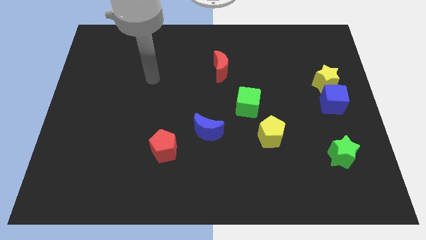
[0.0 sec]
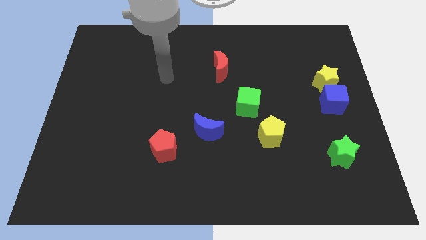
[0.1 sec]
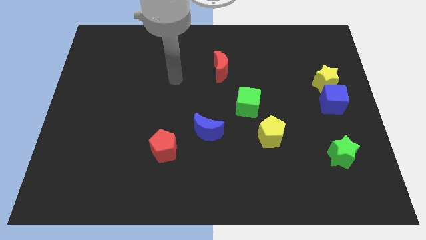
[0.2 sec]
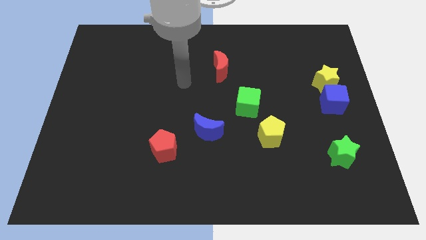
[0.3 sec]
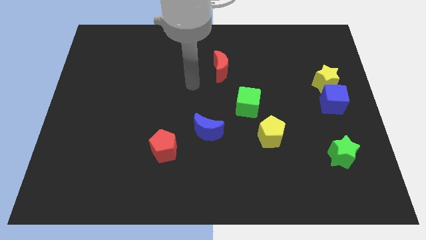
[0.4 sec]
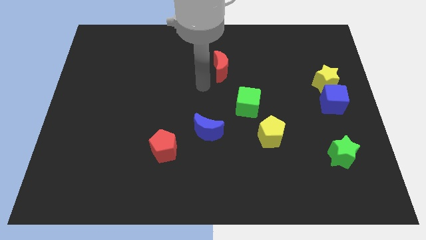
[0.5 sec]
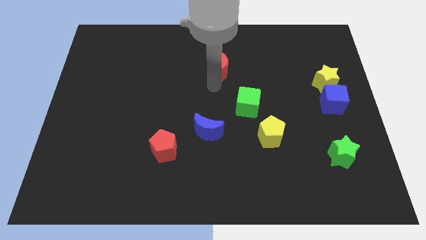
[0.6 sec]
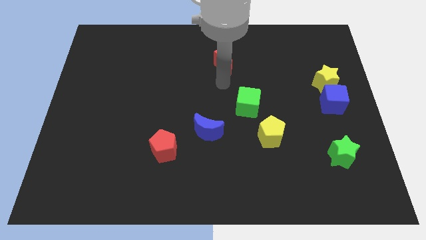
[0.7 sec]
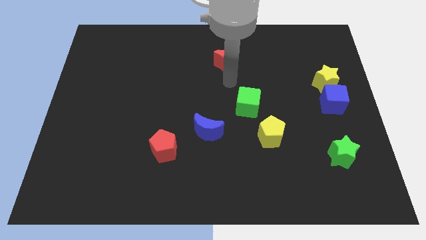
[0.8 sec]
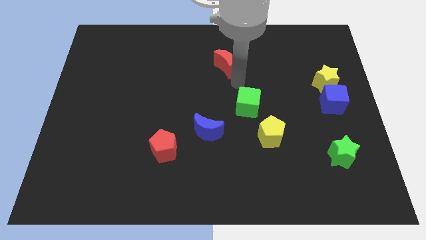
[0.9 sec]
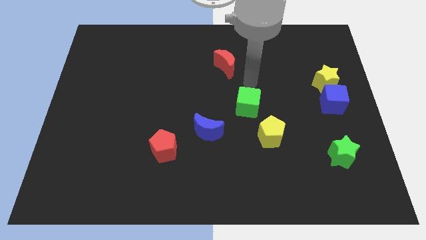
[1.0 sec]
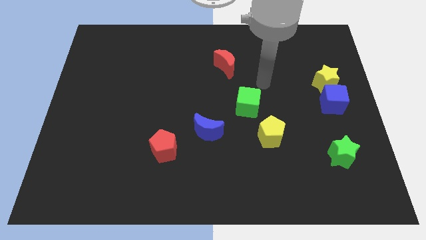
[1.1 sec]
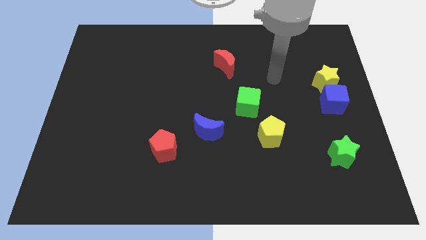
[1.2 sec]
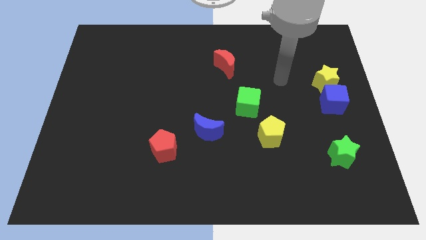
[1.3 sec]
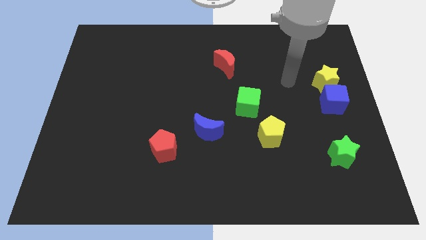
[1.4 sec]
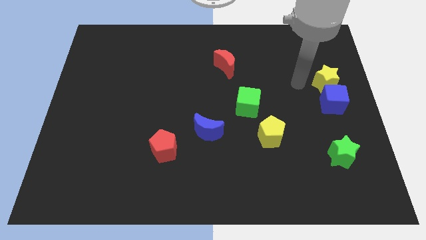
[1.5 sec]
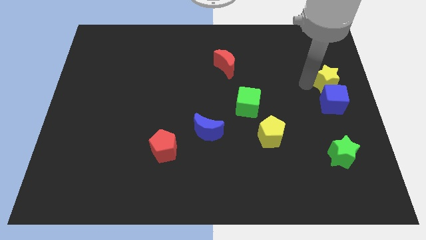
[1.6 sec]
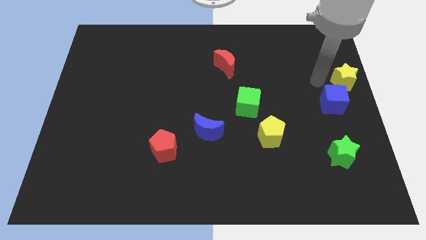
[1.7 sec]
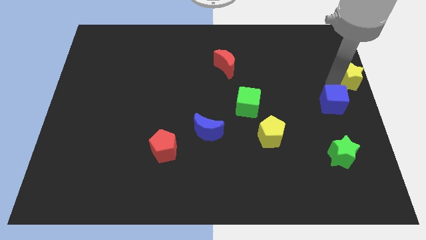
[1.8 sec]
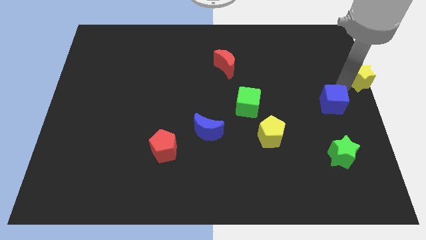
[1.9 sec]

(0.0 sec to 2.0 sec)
pull the blue cube apart from the yellow star

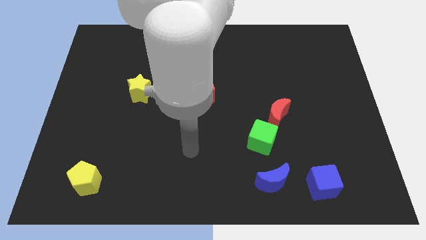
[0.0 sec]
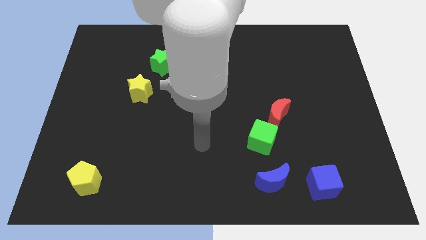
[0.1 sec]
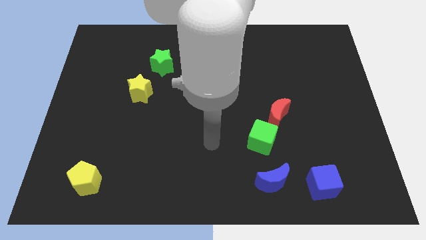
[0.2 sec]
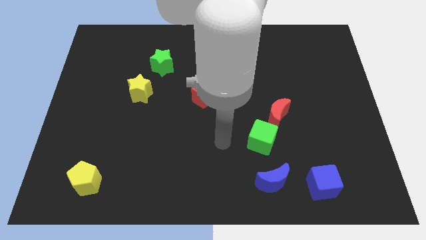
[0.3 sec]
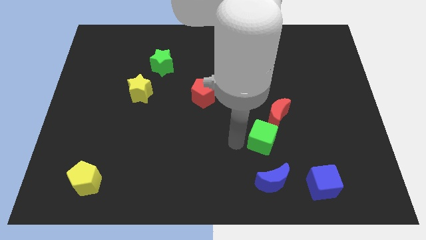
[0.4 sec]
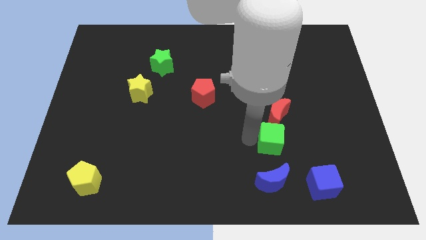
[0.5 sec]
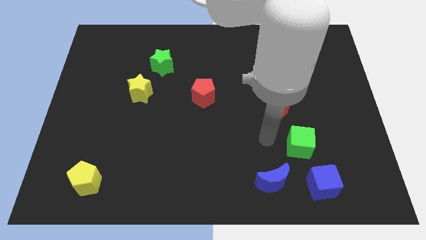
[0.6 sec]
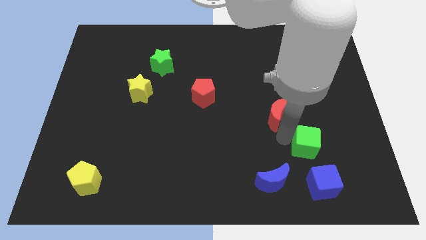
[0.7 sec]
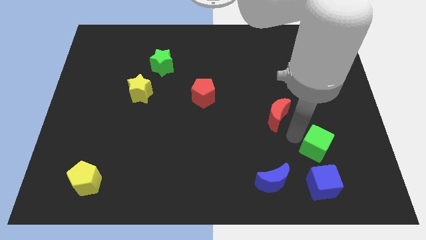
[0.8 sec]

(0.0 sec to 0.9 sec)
pull the red moon apart from the green cube

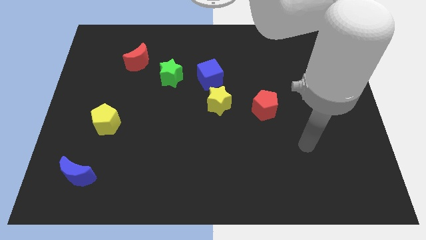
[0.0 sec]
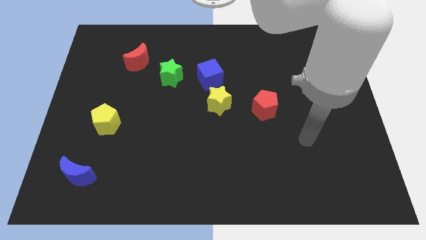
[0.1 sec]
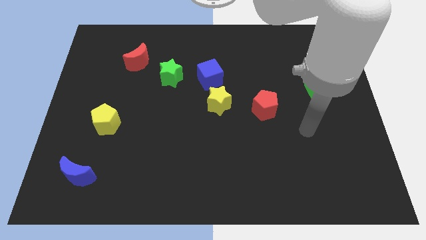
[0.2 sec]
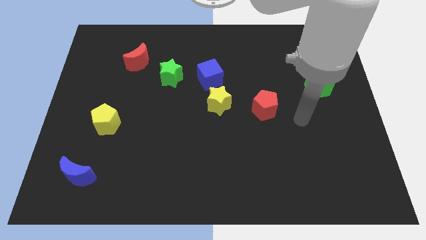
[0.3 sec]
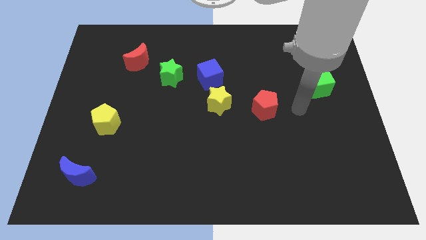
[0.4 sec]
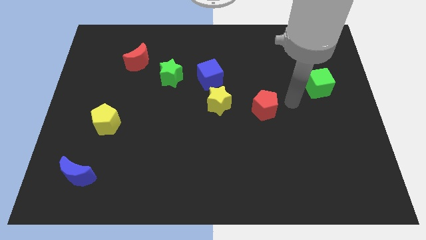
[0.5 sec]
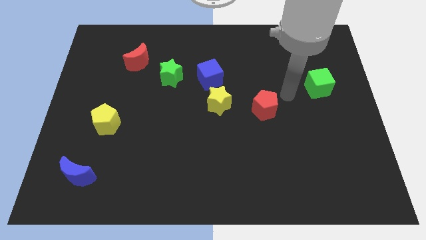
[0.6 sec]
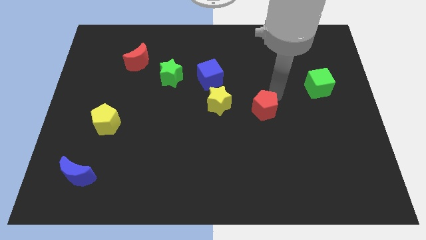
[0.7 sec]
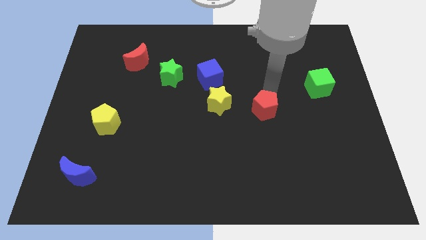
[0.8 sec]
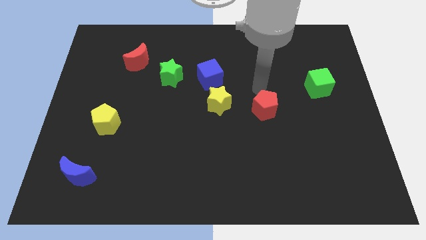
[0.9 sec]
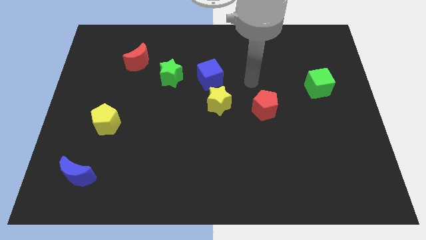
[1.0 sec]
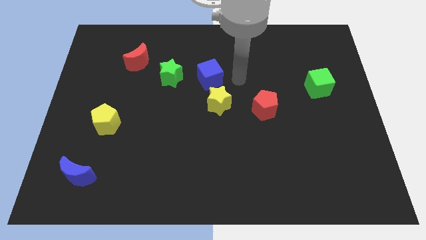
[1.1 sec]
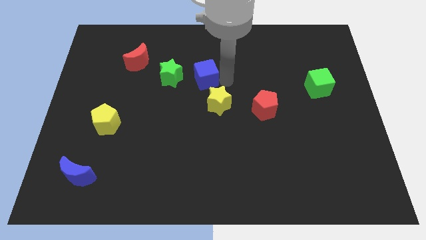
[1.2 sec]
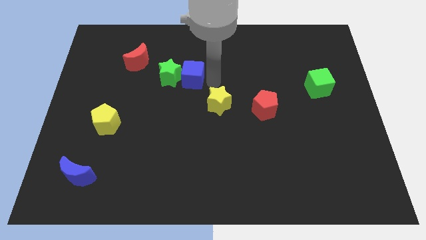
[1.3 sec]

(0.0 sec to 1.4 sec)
pull the yellow star apart from the blue cube

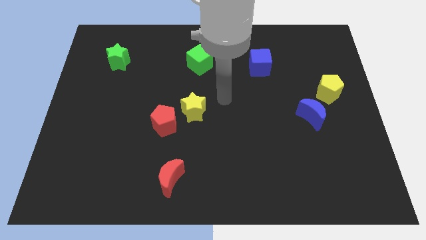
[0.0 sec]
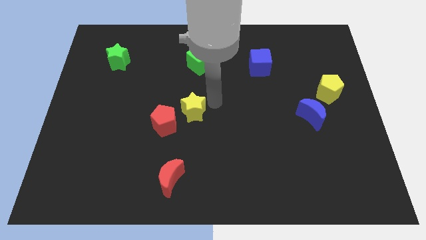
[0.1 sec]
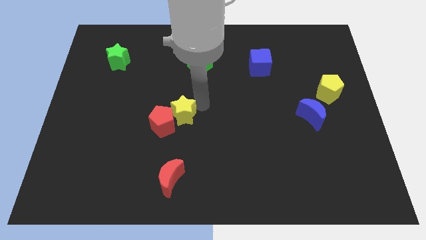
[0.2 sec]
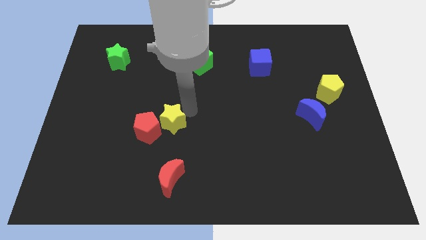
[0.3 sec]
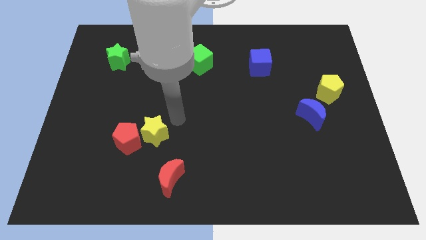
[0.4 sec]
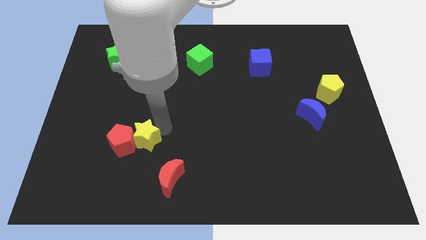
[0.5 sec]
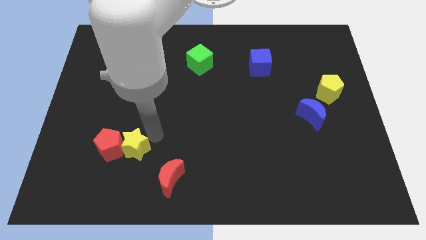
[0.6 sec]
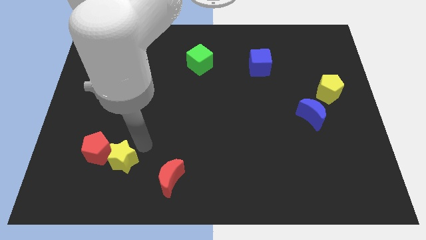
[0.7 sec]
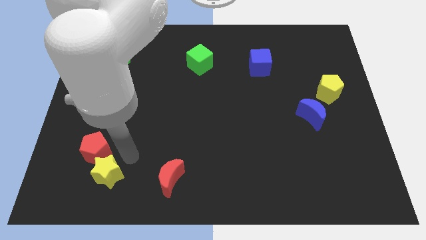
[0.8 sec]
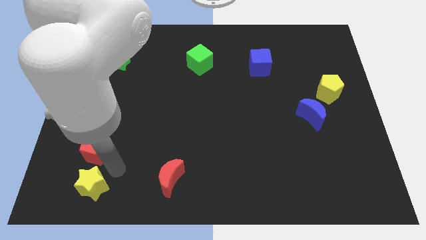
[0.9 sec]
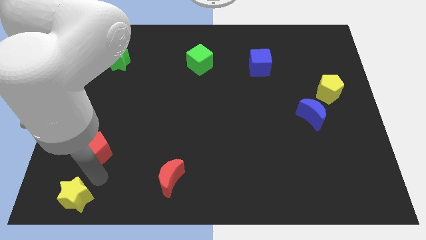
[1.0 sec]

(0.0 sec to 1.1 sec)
move the red pentagon away from the yellow star

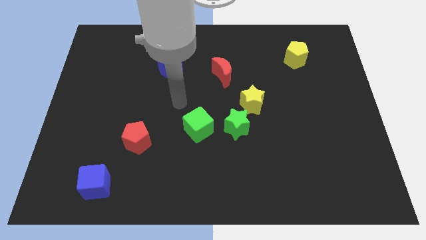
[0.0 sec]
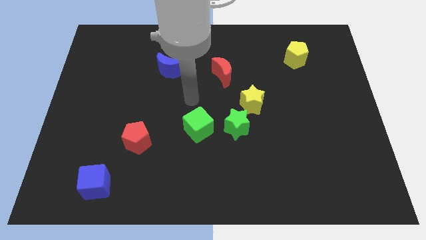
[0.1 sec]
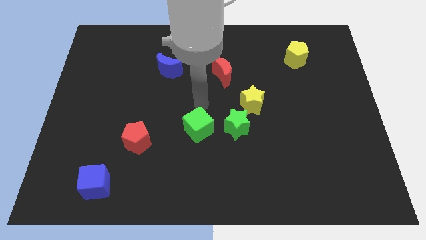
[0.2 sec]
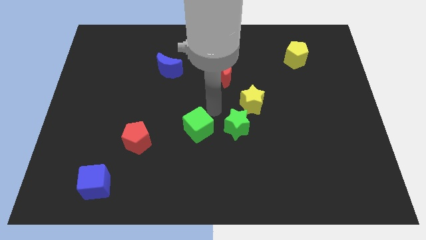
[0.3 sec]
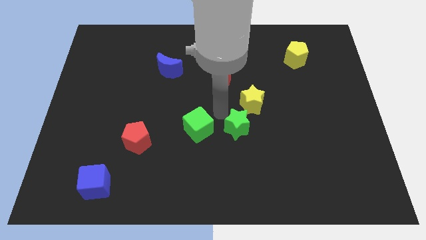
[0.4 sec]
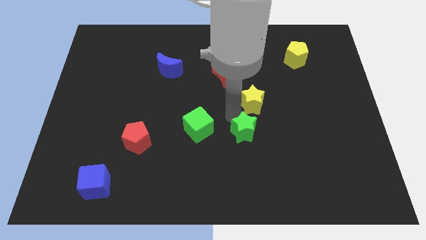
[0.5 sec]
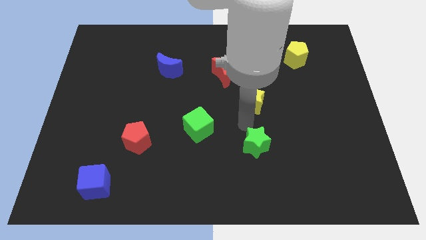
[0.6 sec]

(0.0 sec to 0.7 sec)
pull the yellow star apart from the green star

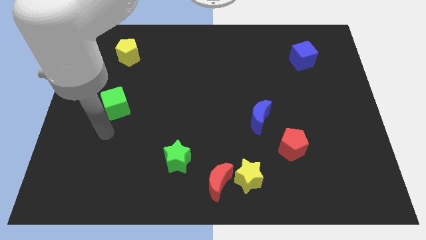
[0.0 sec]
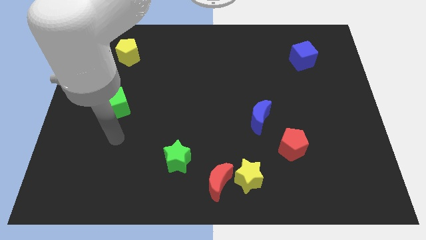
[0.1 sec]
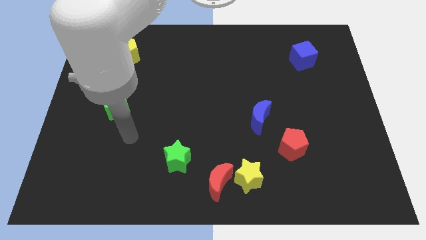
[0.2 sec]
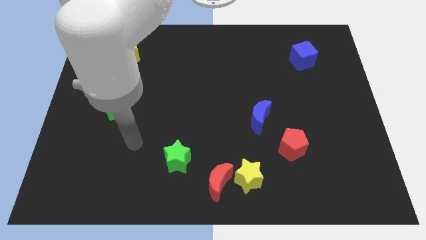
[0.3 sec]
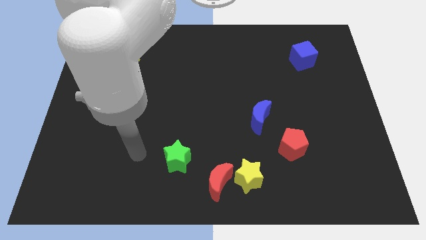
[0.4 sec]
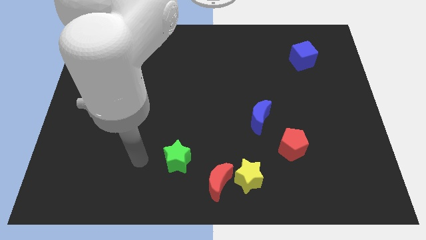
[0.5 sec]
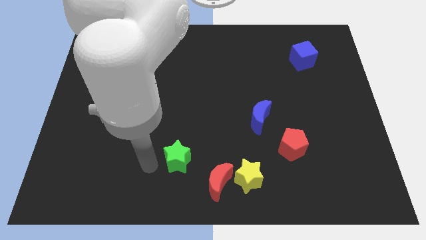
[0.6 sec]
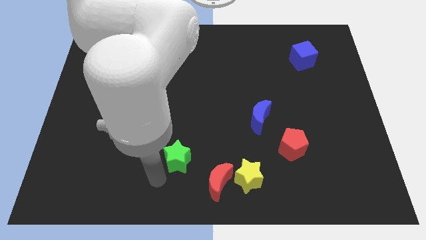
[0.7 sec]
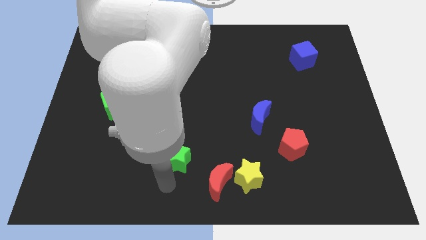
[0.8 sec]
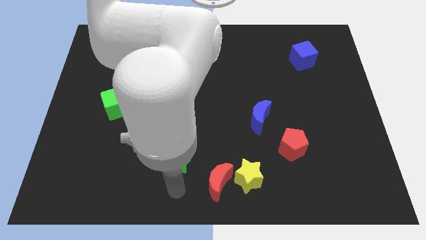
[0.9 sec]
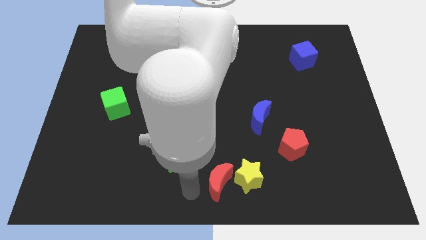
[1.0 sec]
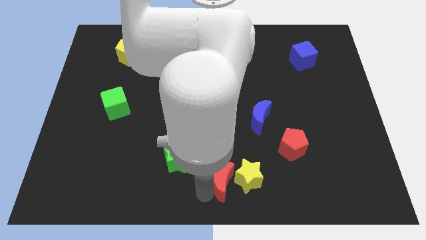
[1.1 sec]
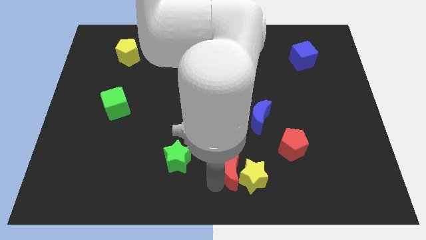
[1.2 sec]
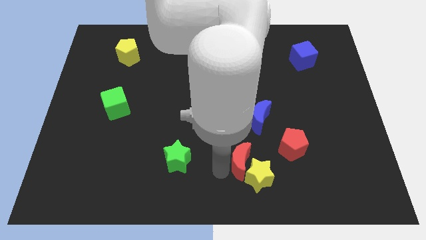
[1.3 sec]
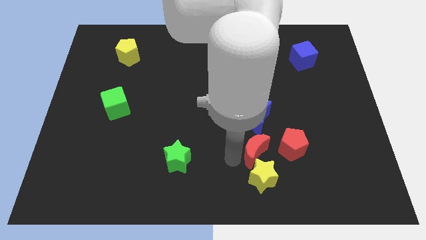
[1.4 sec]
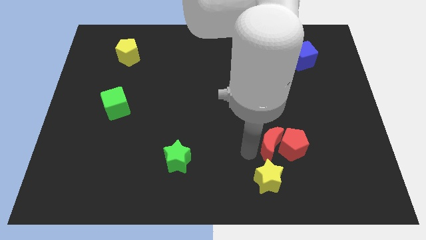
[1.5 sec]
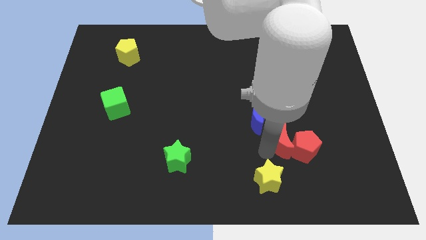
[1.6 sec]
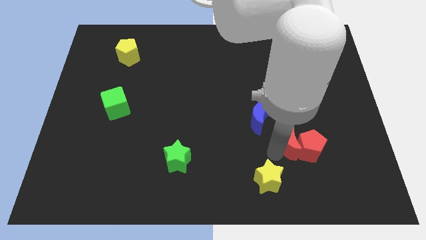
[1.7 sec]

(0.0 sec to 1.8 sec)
separate the yellow star from the red moon

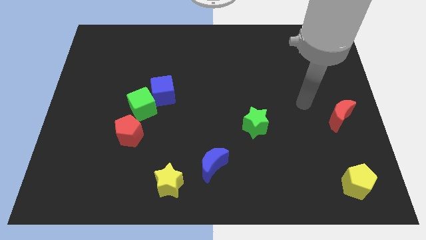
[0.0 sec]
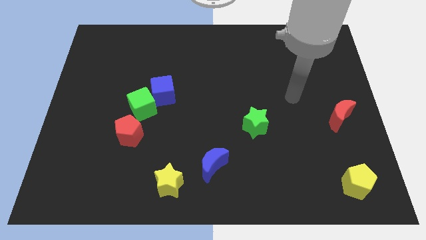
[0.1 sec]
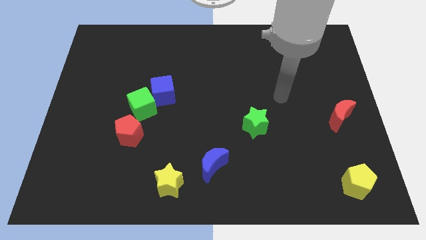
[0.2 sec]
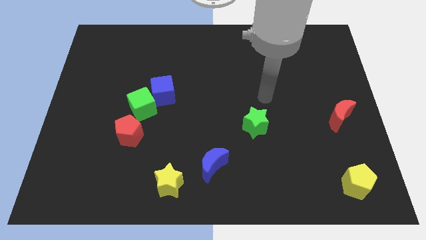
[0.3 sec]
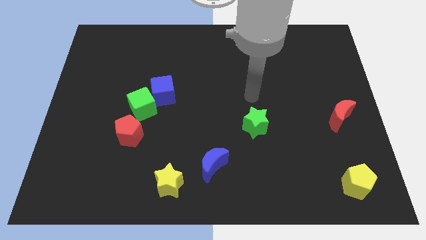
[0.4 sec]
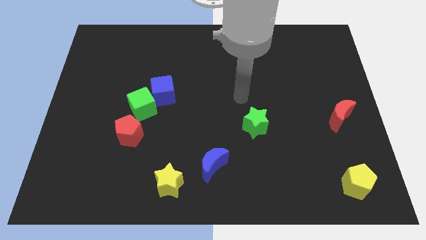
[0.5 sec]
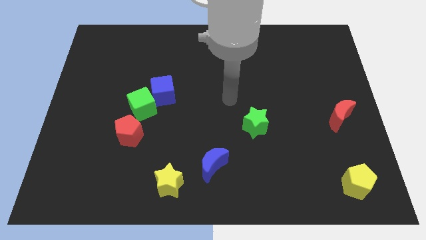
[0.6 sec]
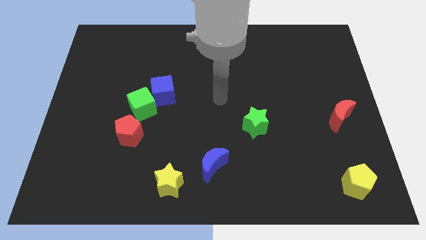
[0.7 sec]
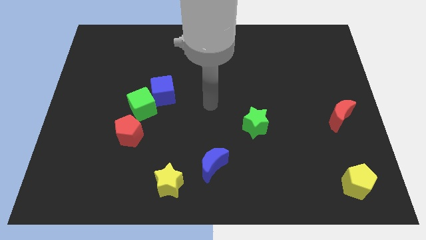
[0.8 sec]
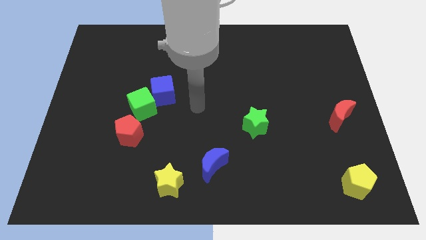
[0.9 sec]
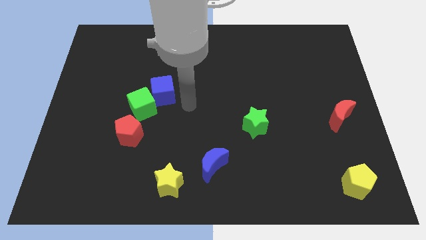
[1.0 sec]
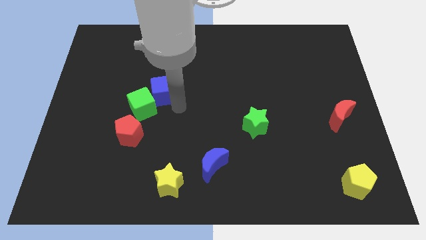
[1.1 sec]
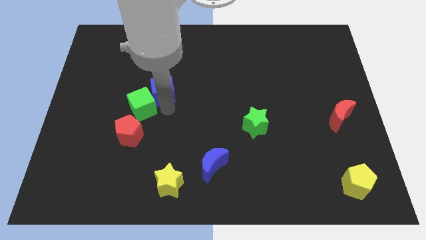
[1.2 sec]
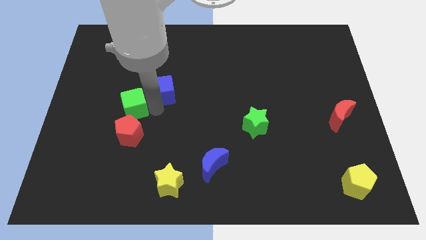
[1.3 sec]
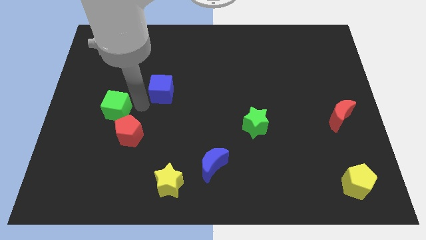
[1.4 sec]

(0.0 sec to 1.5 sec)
move the blue cube away from the green cube
